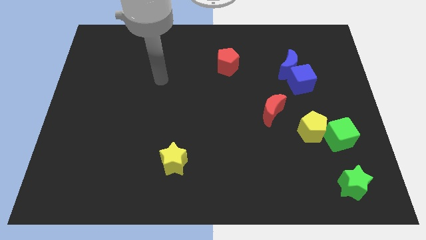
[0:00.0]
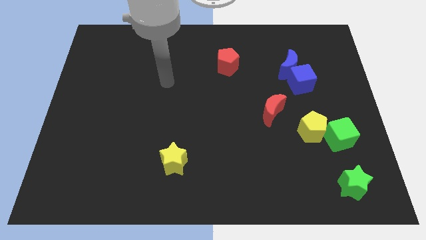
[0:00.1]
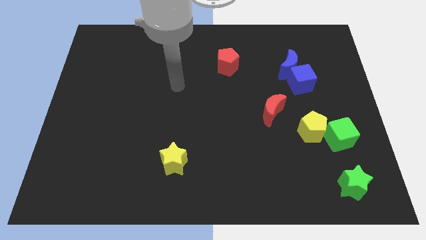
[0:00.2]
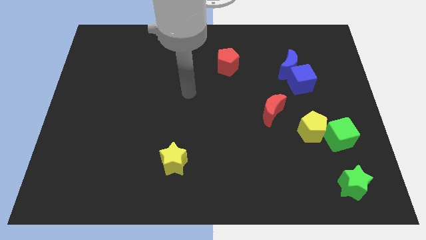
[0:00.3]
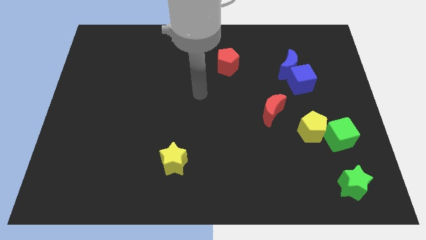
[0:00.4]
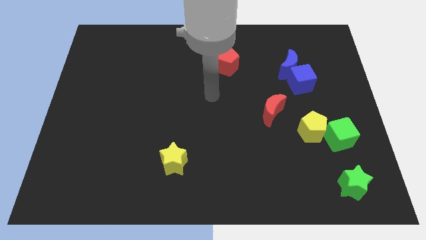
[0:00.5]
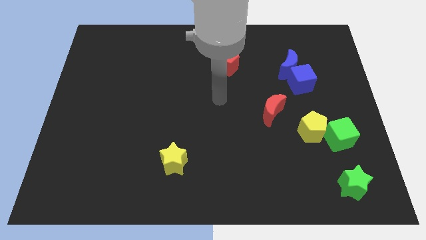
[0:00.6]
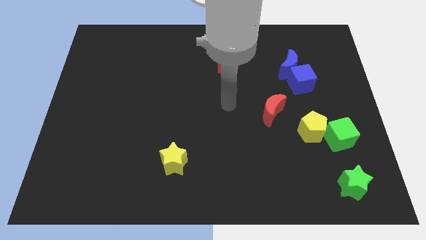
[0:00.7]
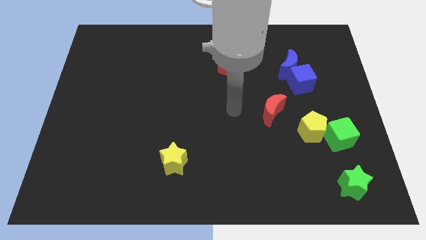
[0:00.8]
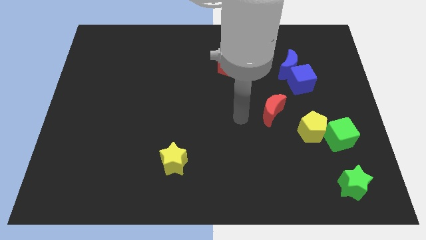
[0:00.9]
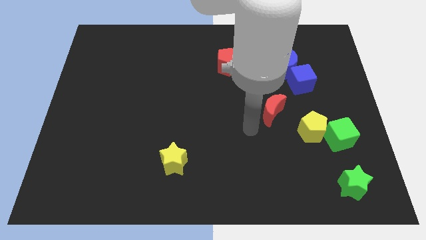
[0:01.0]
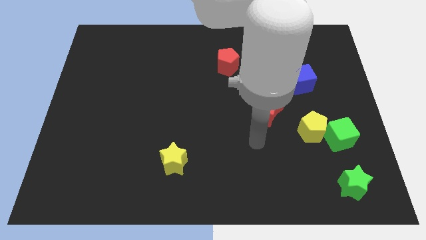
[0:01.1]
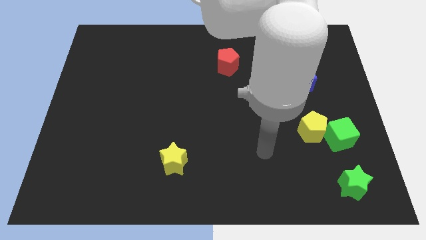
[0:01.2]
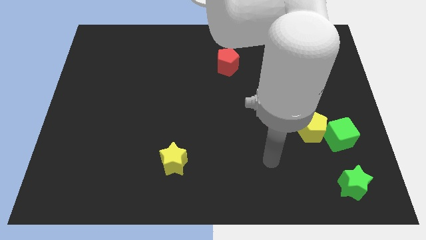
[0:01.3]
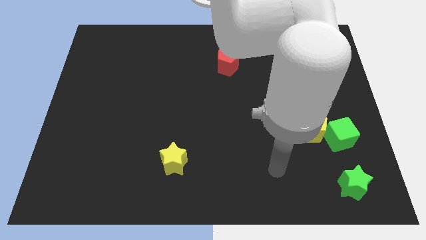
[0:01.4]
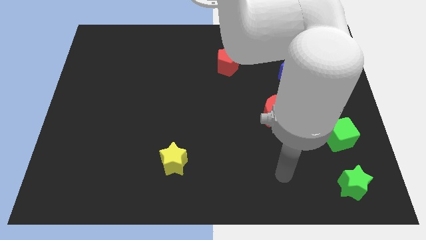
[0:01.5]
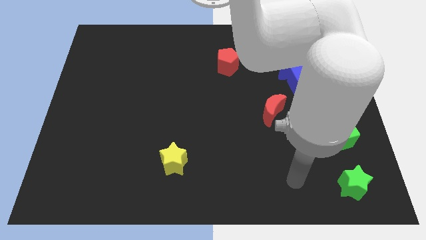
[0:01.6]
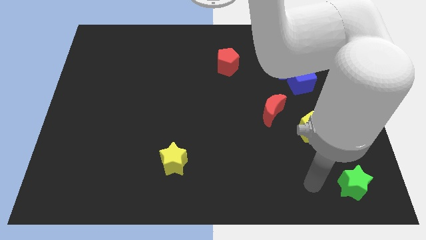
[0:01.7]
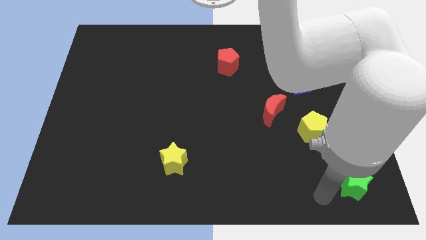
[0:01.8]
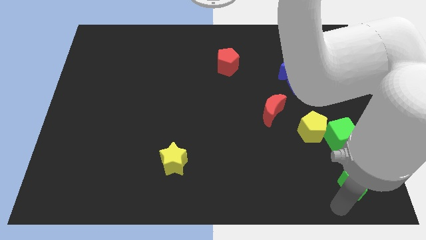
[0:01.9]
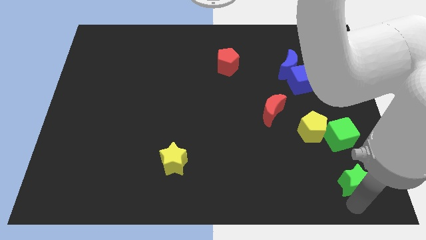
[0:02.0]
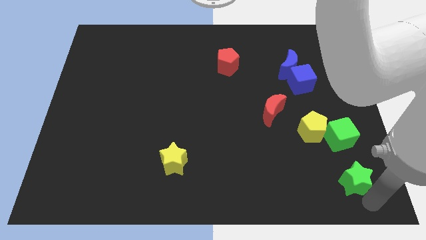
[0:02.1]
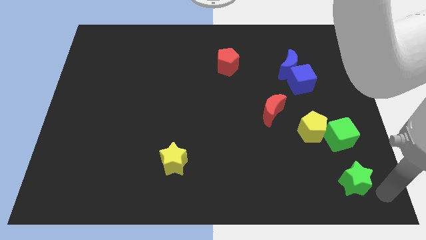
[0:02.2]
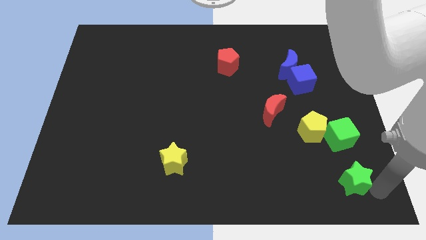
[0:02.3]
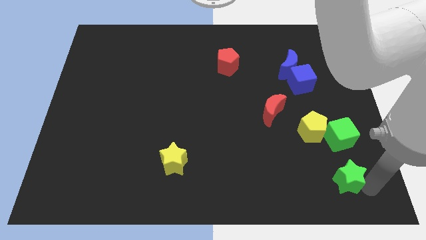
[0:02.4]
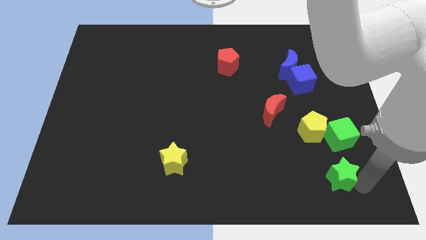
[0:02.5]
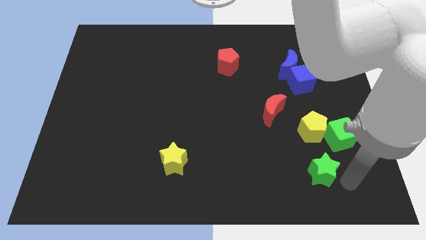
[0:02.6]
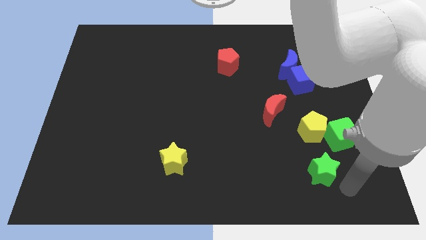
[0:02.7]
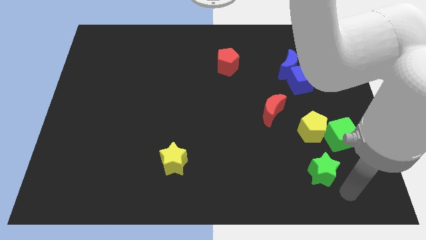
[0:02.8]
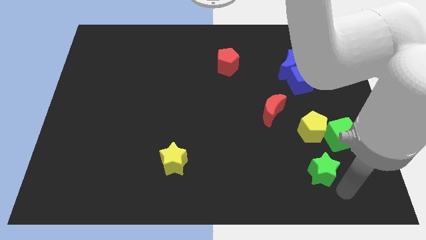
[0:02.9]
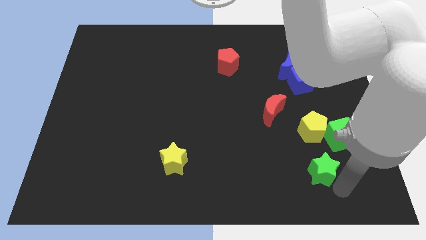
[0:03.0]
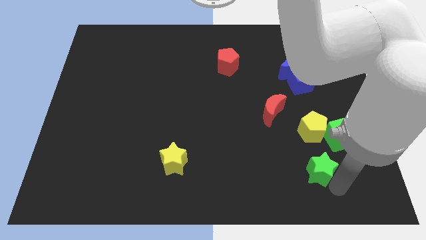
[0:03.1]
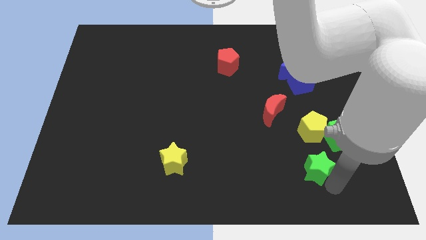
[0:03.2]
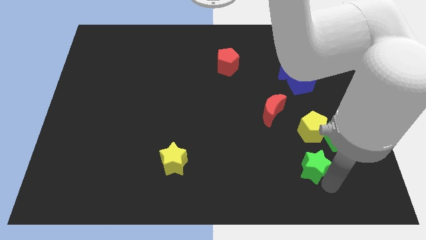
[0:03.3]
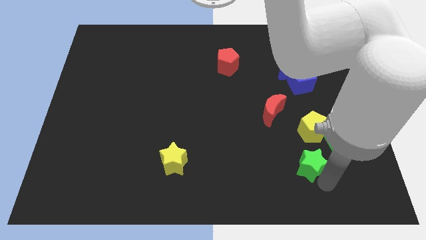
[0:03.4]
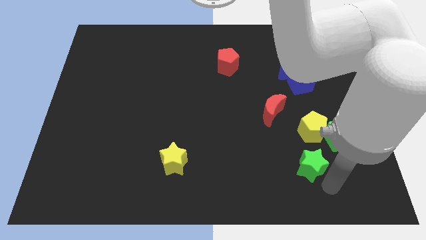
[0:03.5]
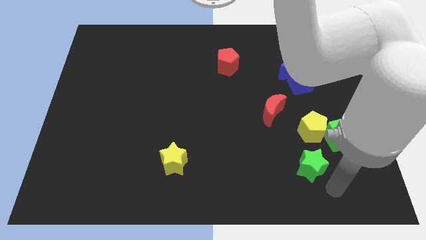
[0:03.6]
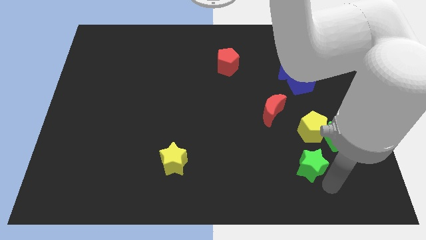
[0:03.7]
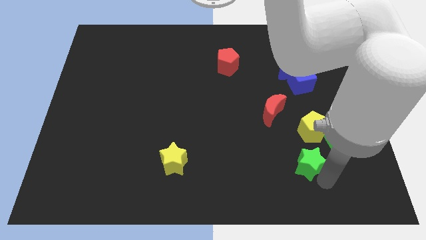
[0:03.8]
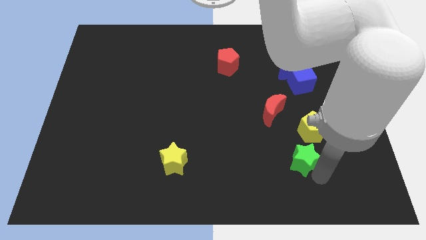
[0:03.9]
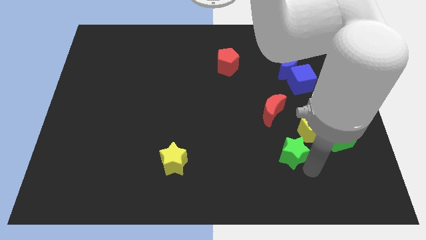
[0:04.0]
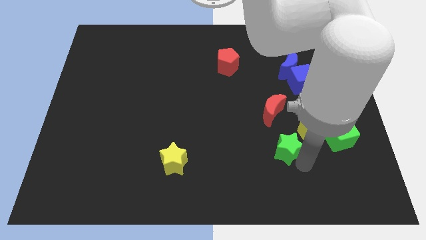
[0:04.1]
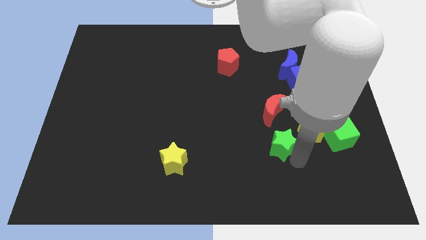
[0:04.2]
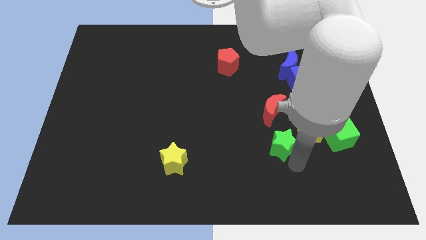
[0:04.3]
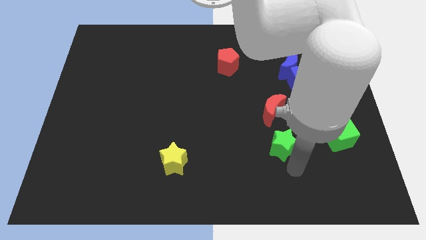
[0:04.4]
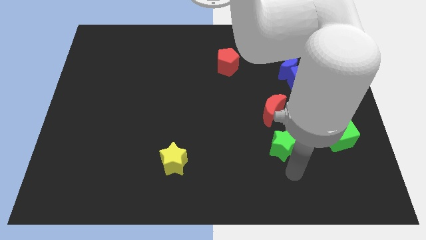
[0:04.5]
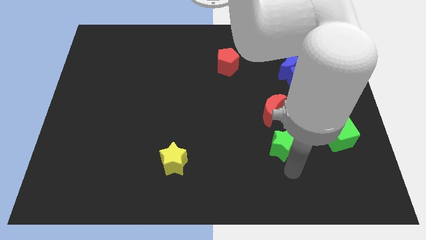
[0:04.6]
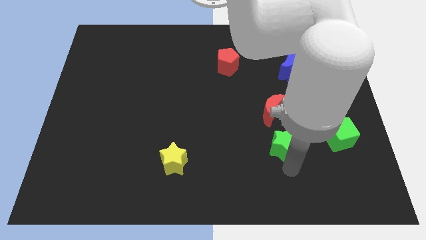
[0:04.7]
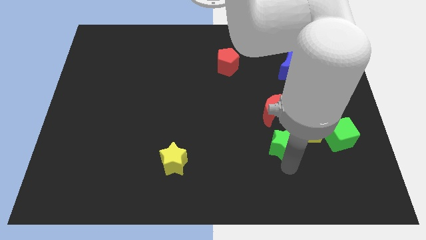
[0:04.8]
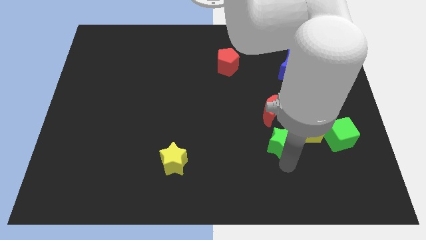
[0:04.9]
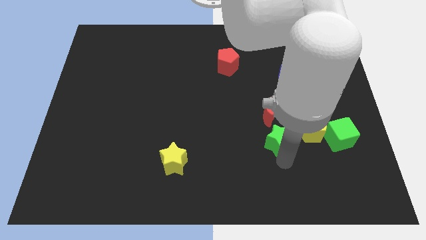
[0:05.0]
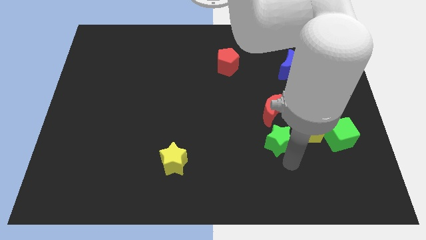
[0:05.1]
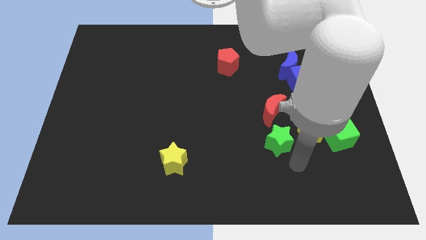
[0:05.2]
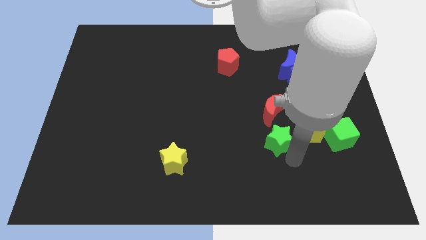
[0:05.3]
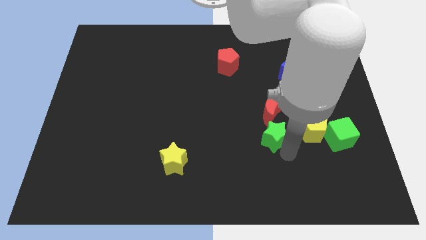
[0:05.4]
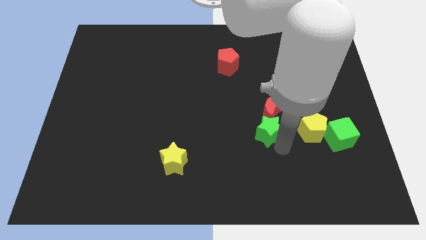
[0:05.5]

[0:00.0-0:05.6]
move the green star up and then to the left

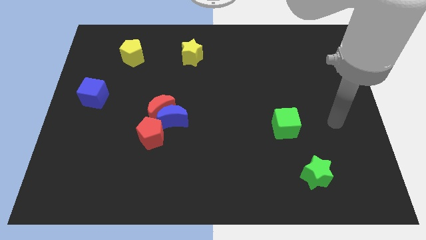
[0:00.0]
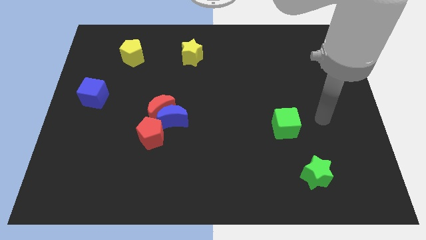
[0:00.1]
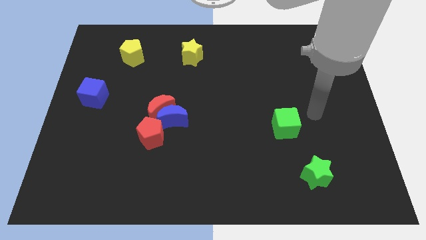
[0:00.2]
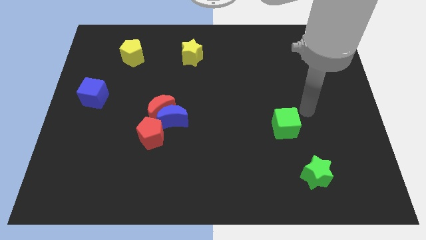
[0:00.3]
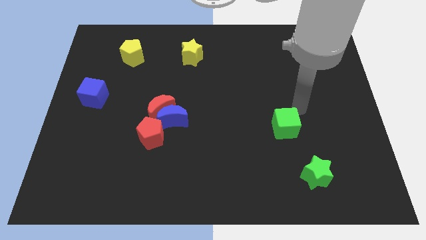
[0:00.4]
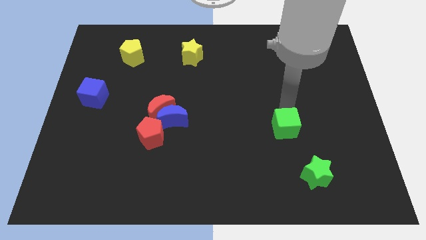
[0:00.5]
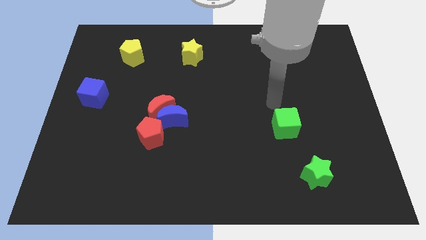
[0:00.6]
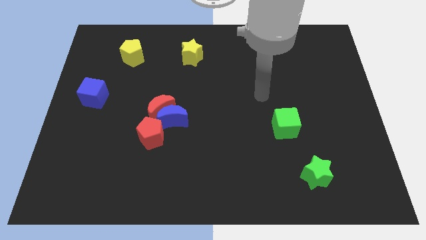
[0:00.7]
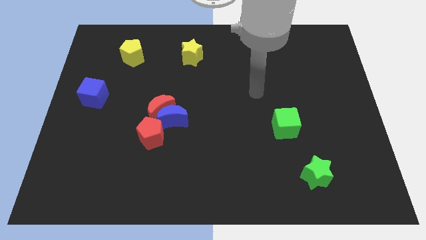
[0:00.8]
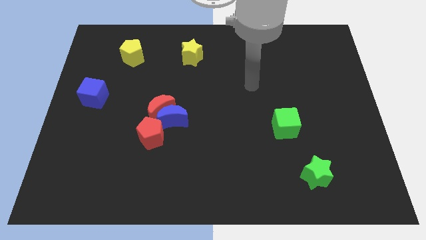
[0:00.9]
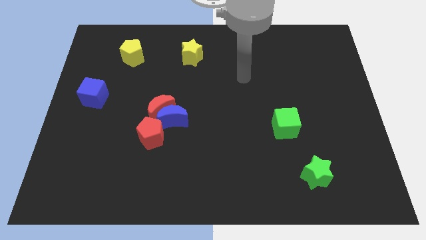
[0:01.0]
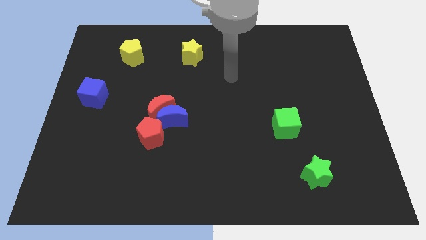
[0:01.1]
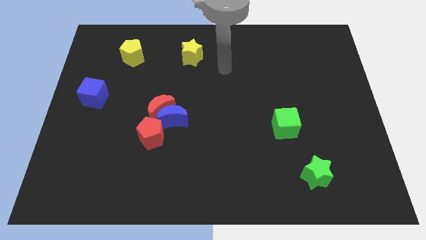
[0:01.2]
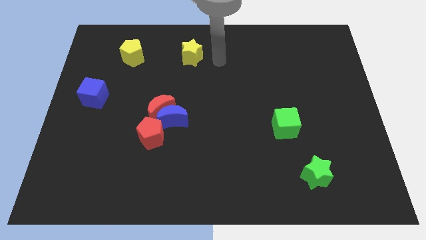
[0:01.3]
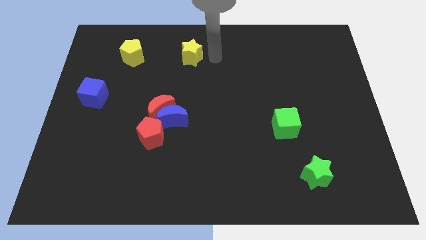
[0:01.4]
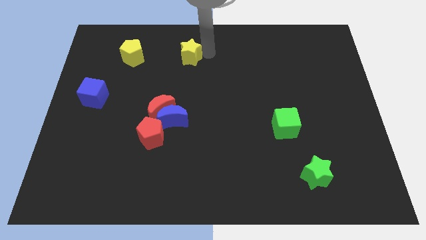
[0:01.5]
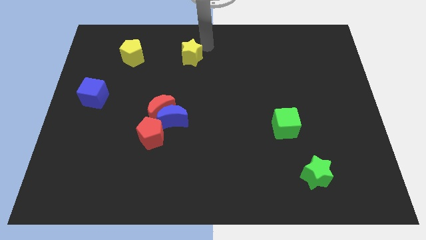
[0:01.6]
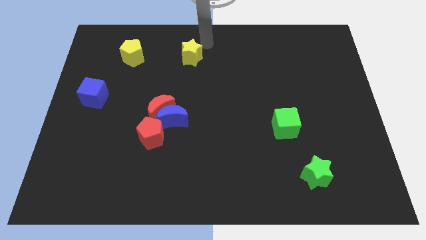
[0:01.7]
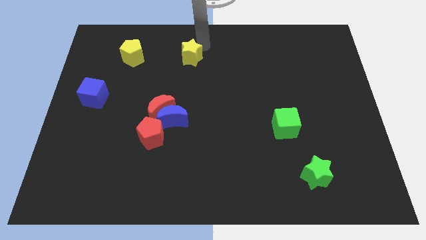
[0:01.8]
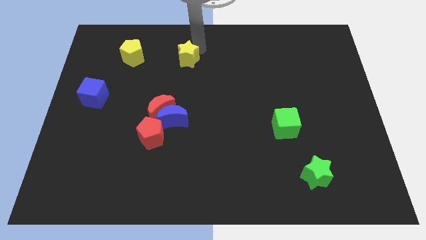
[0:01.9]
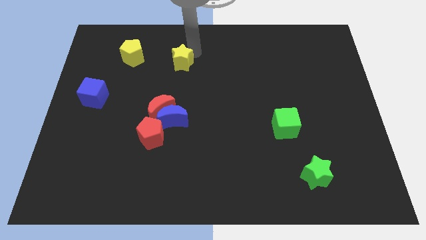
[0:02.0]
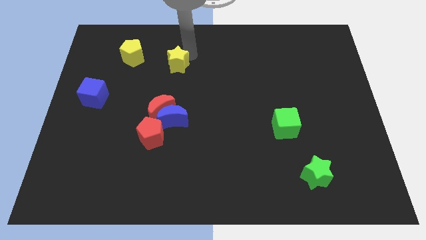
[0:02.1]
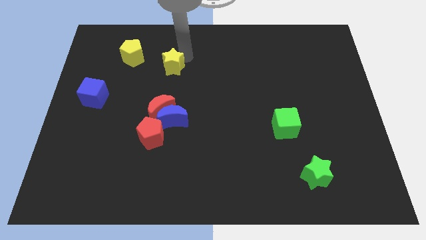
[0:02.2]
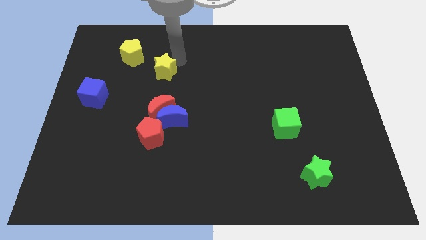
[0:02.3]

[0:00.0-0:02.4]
push the yellow star a little bit down and then to the left
